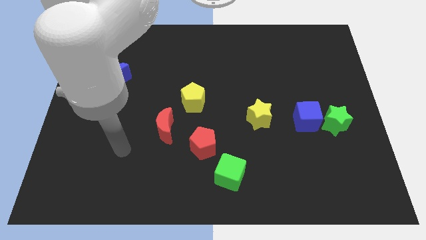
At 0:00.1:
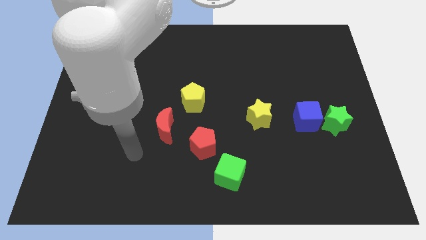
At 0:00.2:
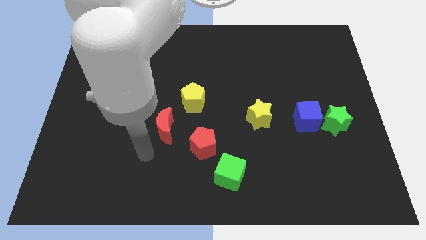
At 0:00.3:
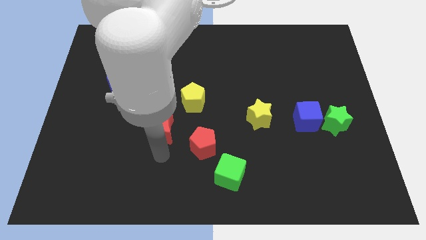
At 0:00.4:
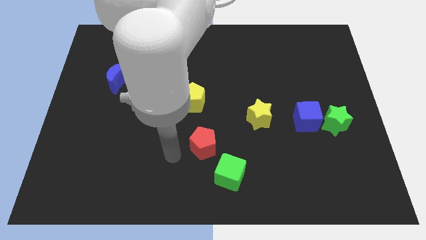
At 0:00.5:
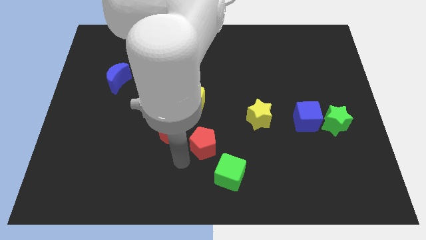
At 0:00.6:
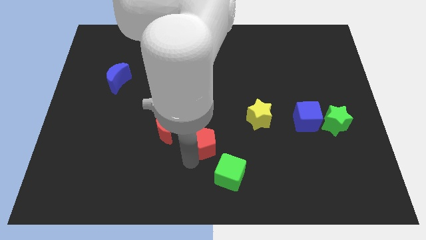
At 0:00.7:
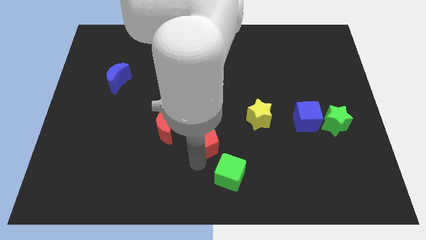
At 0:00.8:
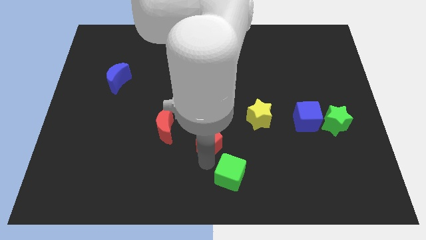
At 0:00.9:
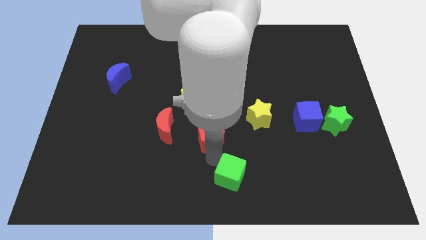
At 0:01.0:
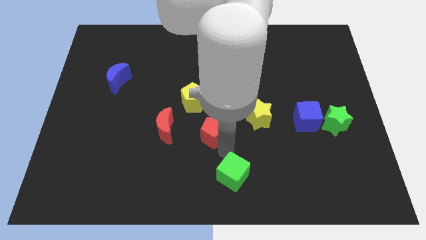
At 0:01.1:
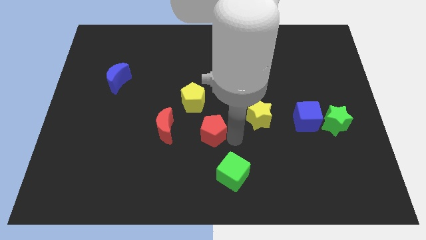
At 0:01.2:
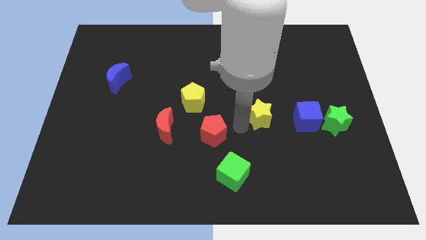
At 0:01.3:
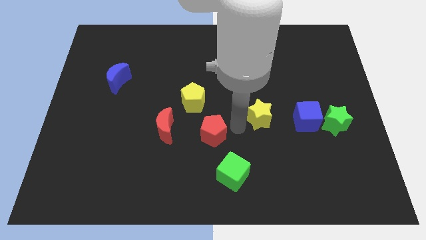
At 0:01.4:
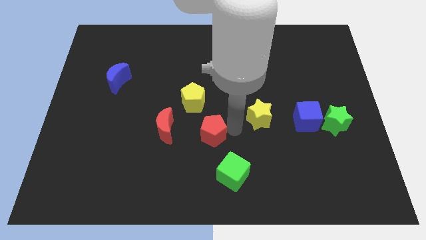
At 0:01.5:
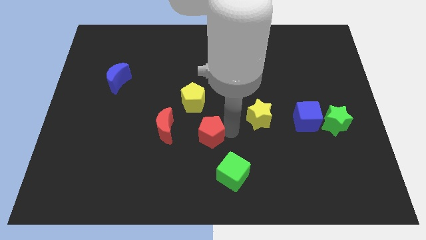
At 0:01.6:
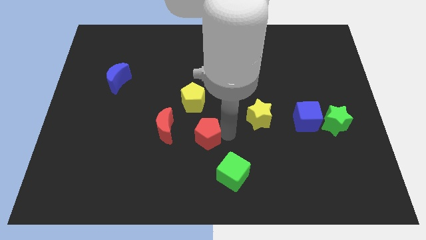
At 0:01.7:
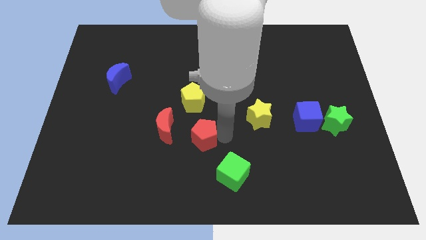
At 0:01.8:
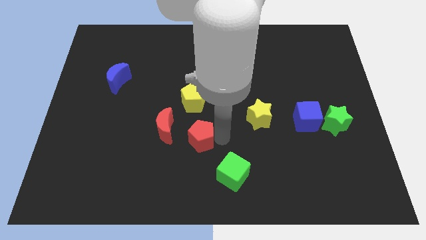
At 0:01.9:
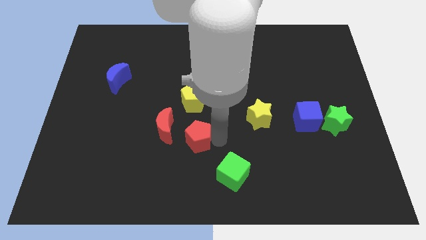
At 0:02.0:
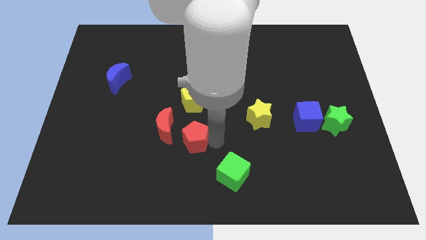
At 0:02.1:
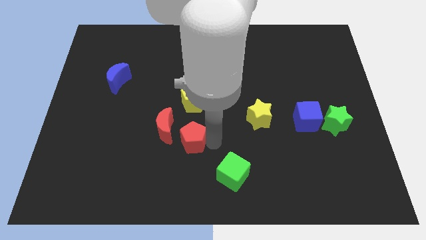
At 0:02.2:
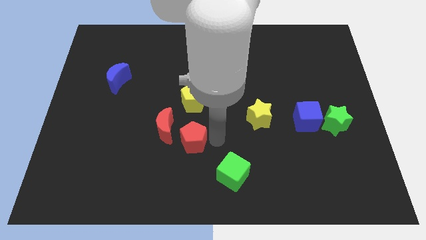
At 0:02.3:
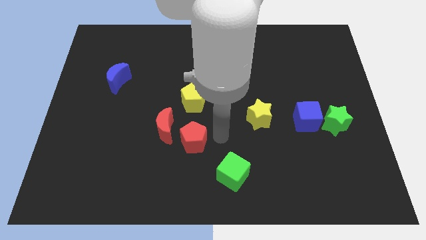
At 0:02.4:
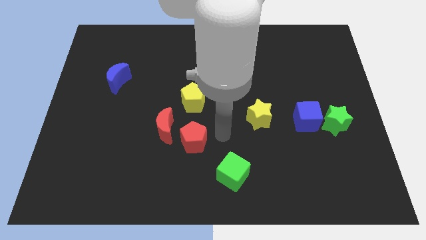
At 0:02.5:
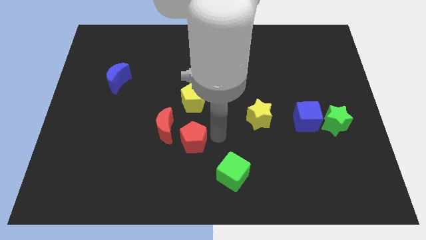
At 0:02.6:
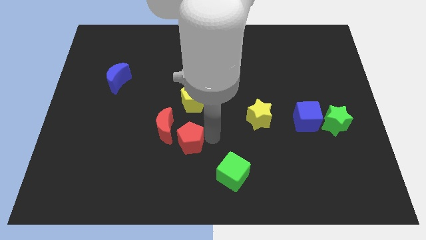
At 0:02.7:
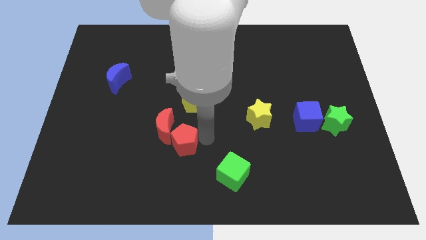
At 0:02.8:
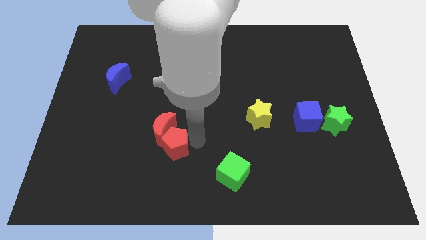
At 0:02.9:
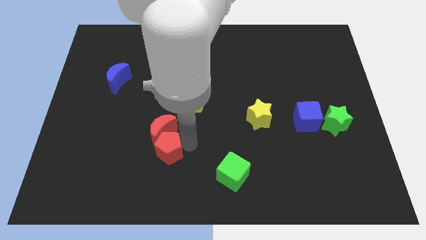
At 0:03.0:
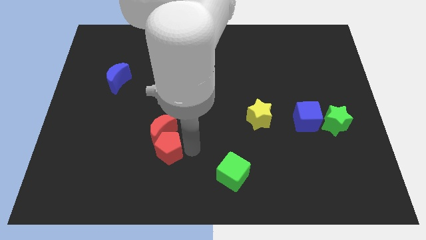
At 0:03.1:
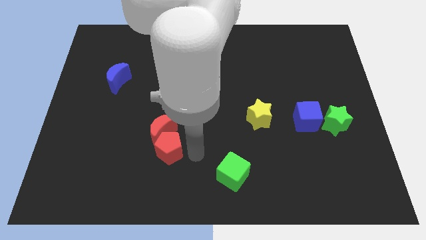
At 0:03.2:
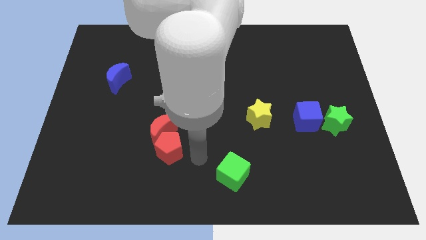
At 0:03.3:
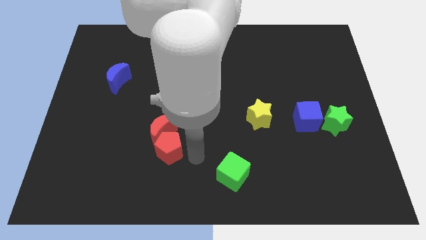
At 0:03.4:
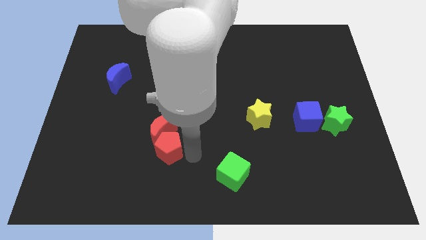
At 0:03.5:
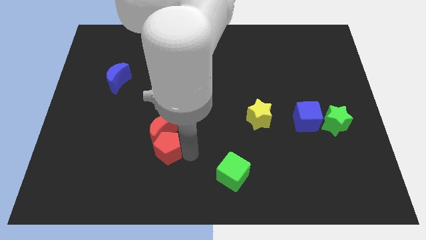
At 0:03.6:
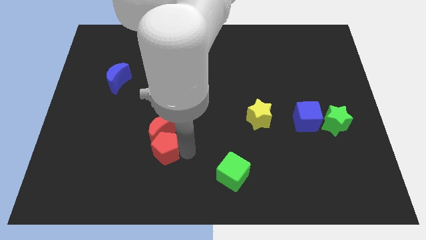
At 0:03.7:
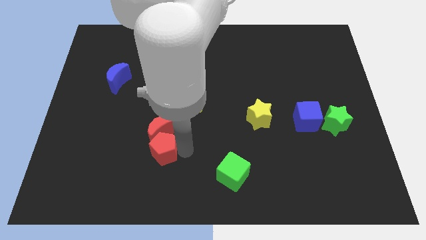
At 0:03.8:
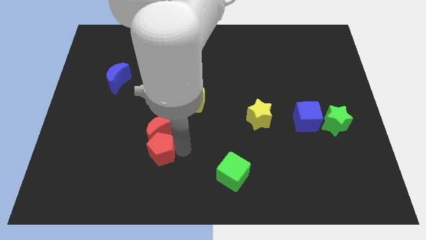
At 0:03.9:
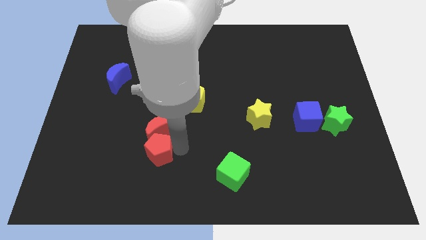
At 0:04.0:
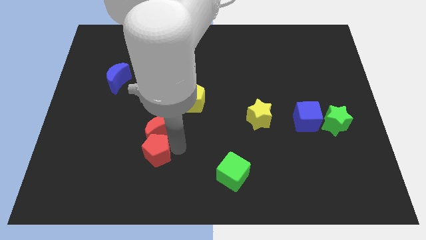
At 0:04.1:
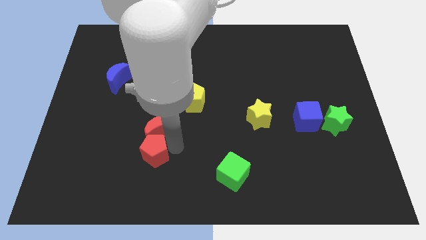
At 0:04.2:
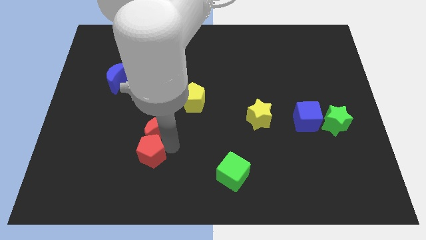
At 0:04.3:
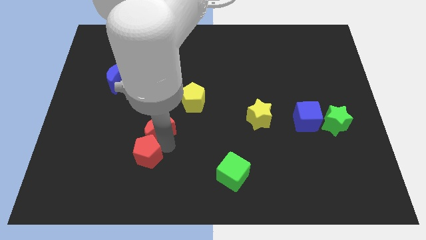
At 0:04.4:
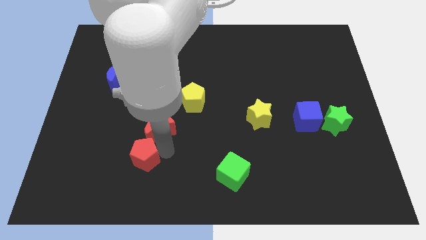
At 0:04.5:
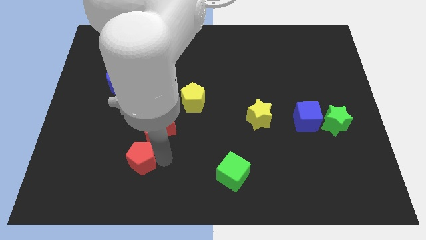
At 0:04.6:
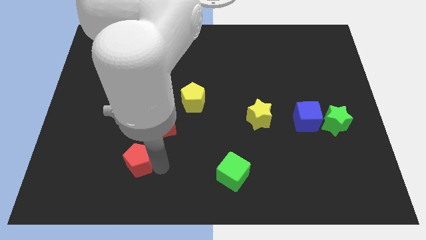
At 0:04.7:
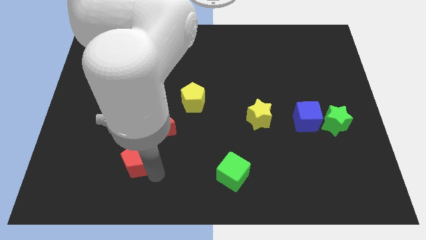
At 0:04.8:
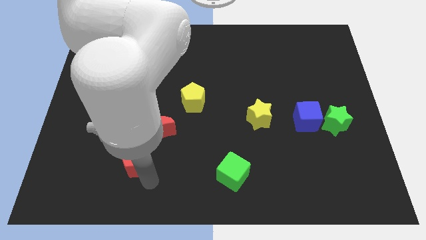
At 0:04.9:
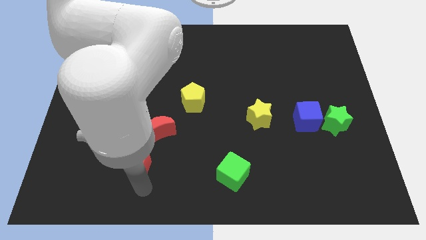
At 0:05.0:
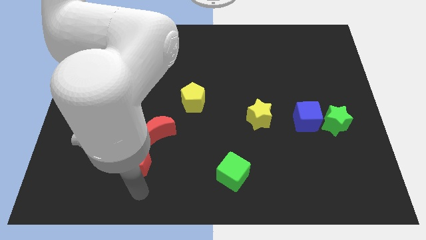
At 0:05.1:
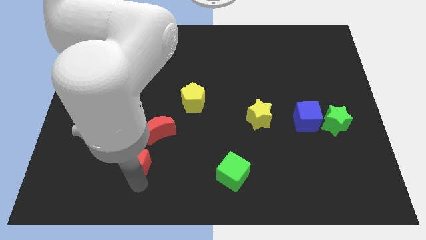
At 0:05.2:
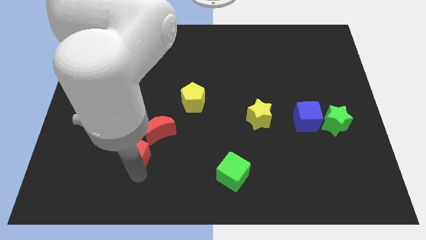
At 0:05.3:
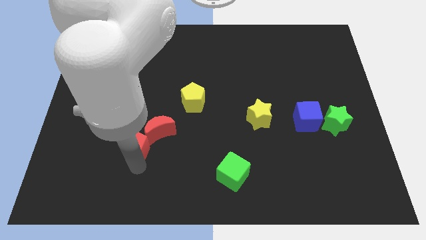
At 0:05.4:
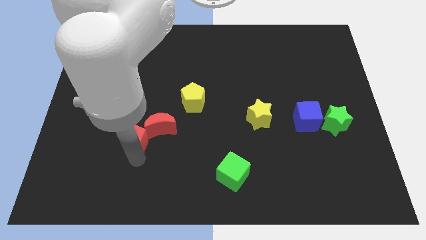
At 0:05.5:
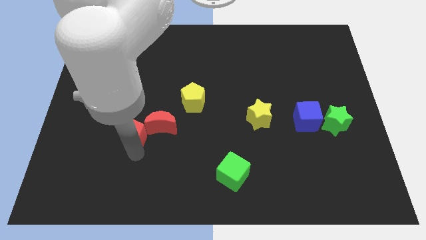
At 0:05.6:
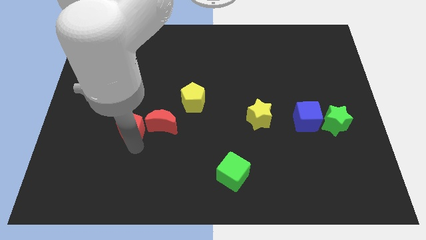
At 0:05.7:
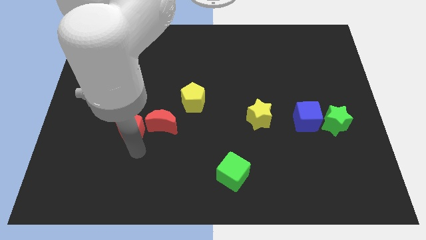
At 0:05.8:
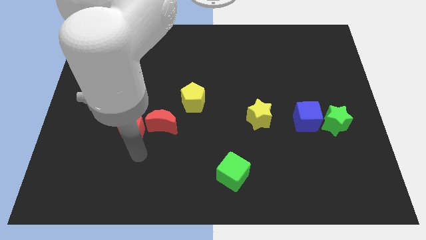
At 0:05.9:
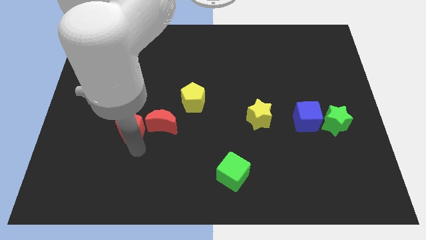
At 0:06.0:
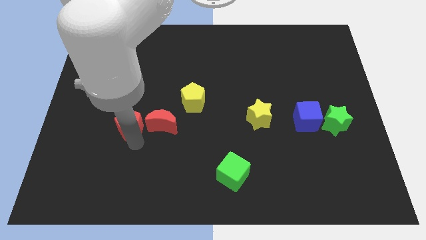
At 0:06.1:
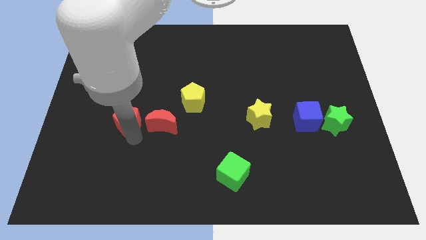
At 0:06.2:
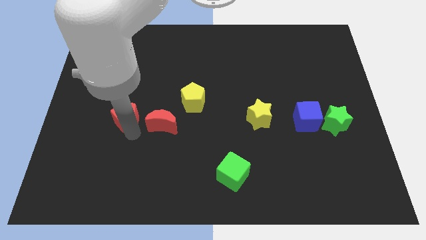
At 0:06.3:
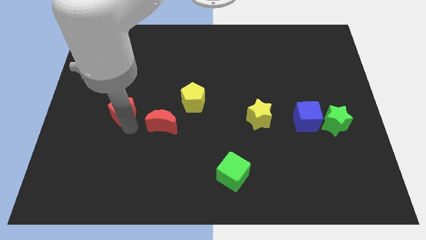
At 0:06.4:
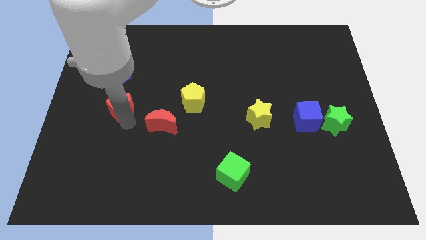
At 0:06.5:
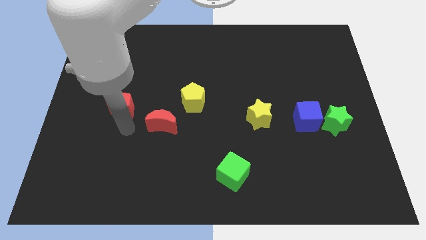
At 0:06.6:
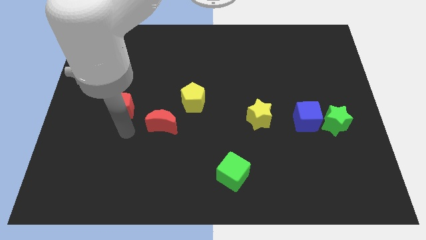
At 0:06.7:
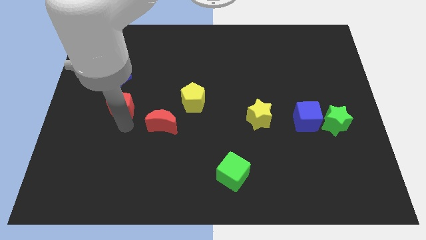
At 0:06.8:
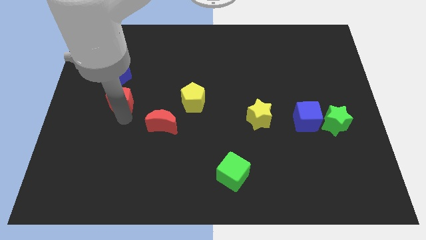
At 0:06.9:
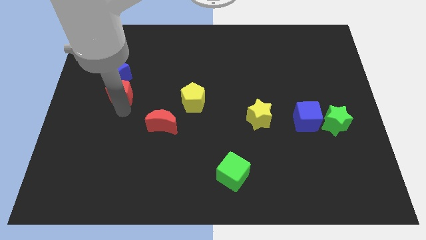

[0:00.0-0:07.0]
move the red pentagon next to the blue moon

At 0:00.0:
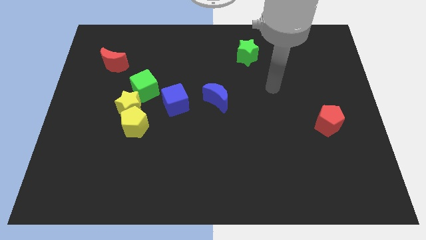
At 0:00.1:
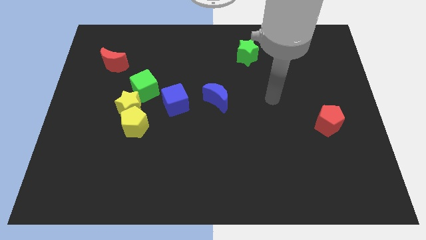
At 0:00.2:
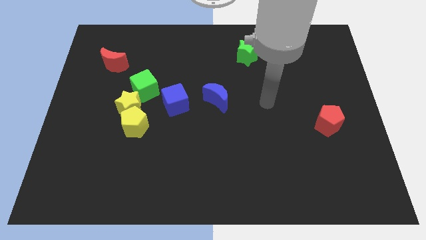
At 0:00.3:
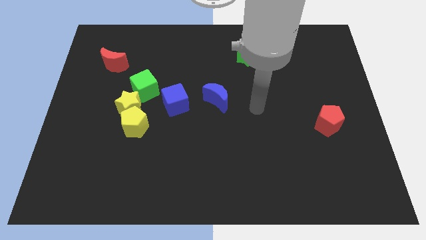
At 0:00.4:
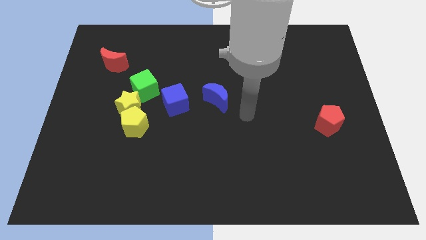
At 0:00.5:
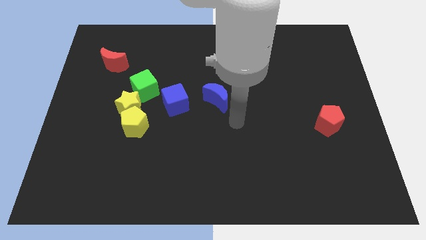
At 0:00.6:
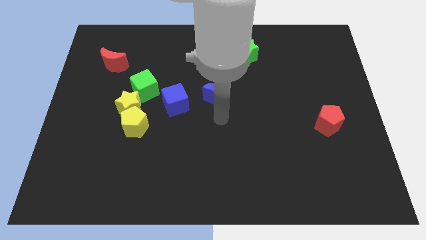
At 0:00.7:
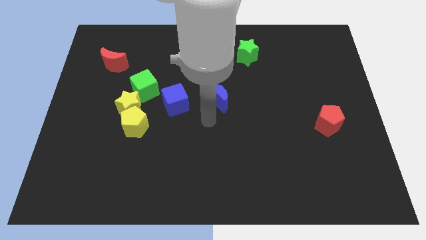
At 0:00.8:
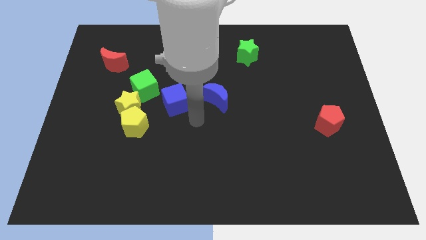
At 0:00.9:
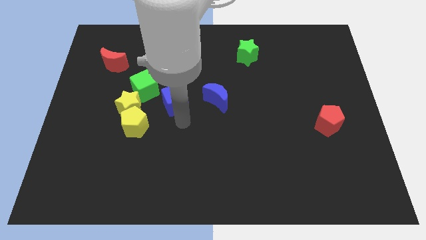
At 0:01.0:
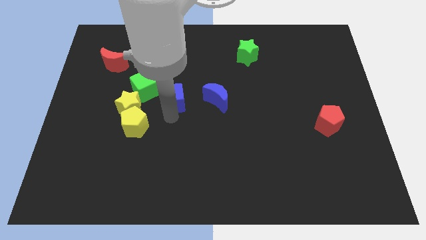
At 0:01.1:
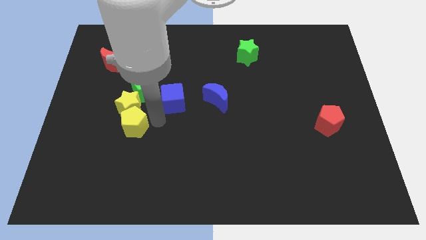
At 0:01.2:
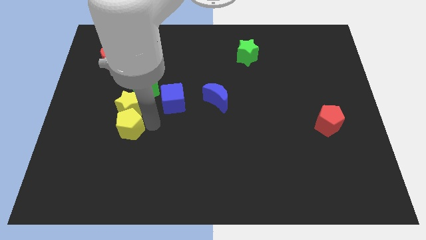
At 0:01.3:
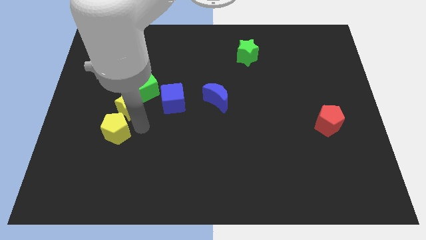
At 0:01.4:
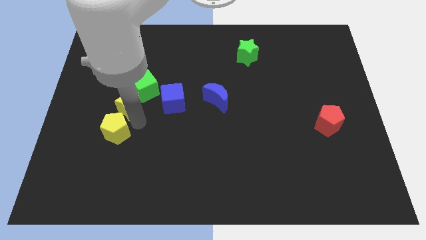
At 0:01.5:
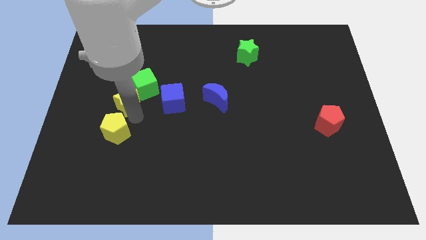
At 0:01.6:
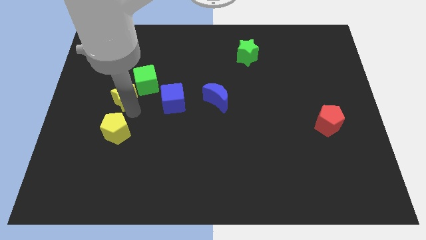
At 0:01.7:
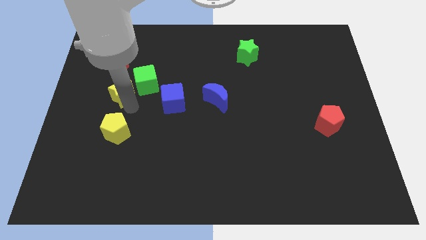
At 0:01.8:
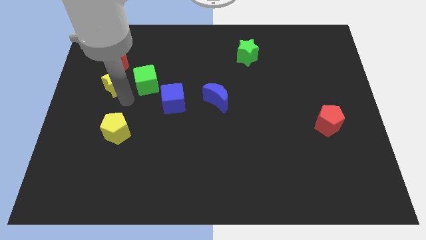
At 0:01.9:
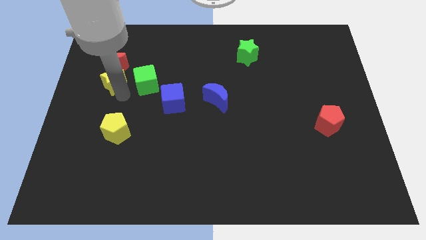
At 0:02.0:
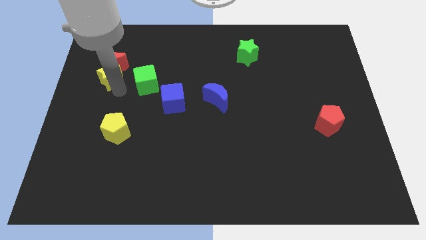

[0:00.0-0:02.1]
move the yellow star towards the red moon
